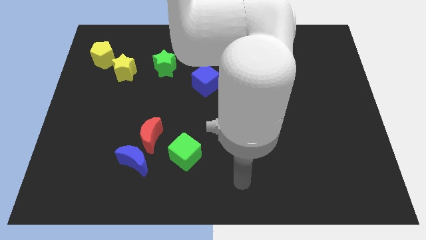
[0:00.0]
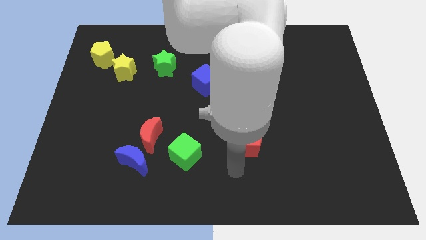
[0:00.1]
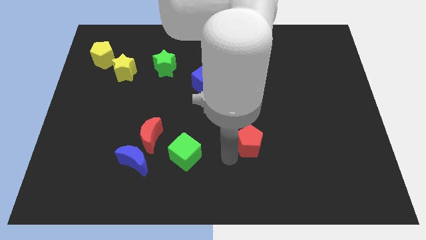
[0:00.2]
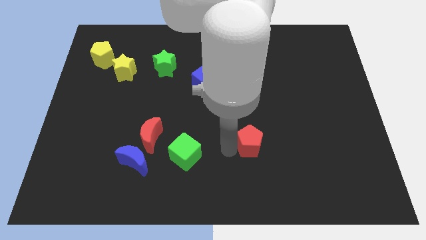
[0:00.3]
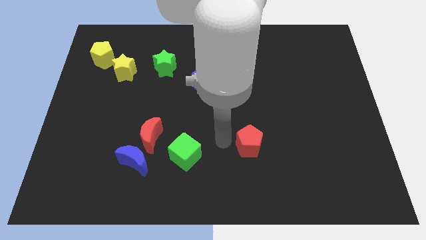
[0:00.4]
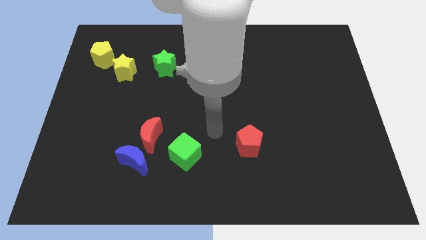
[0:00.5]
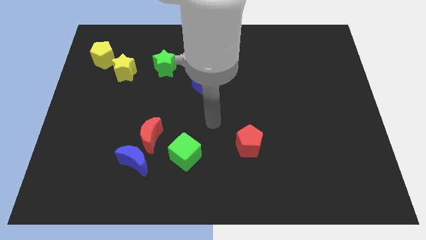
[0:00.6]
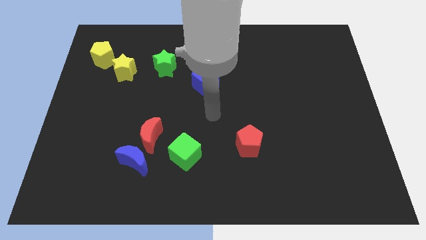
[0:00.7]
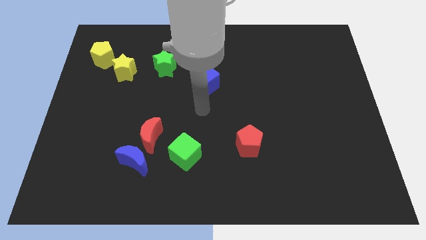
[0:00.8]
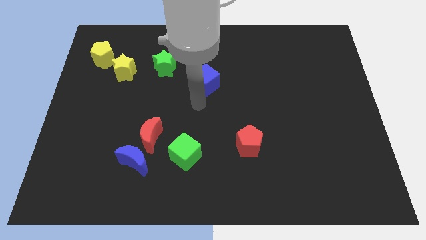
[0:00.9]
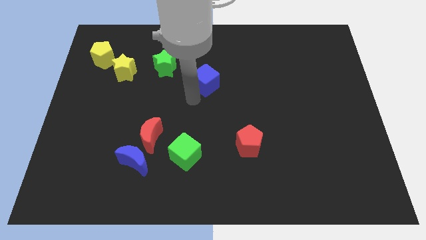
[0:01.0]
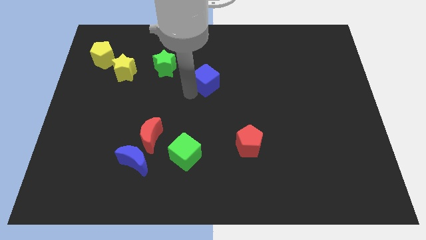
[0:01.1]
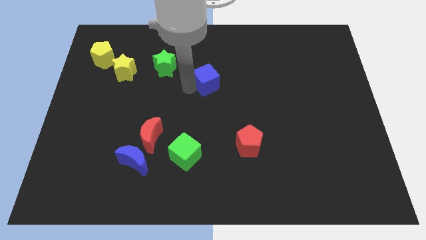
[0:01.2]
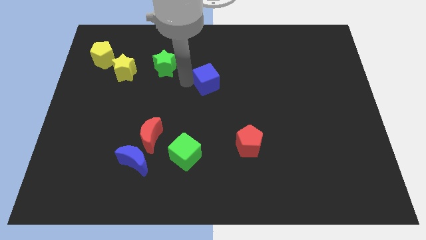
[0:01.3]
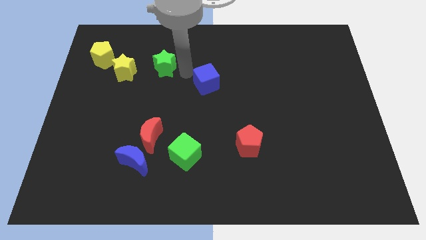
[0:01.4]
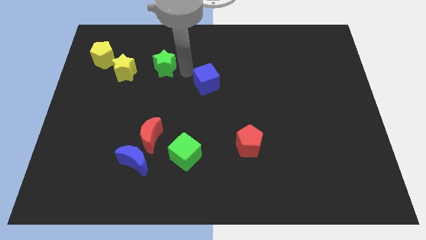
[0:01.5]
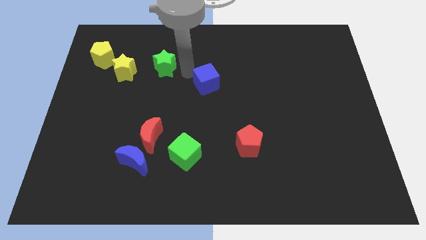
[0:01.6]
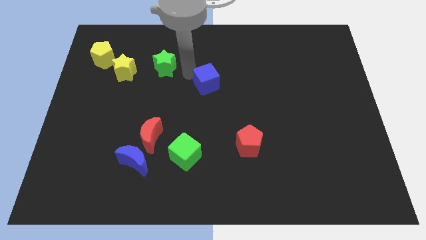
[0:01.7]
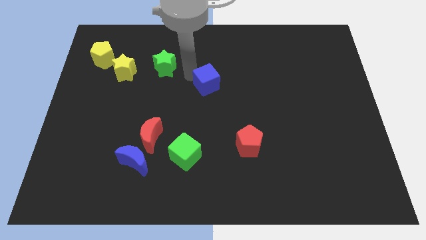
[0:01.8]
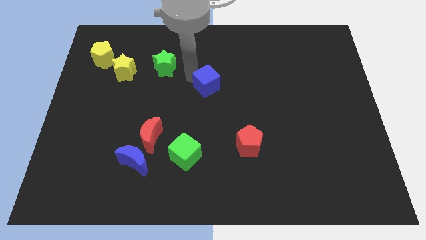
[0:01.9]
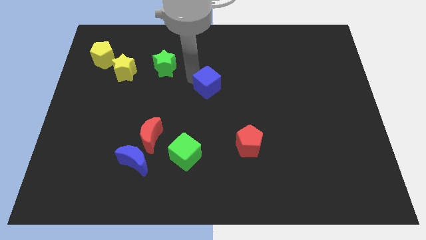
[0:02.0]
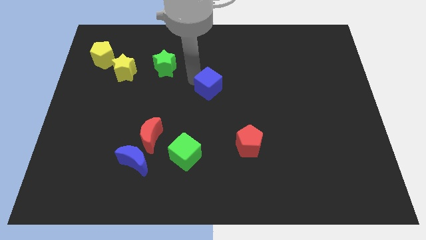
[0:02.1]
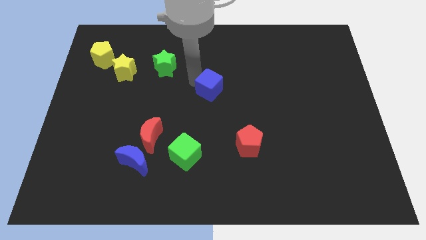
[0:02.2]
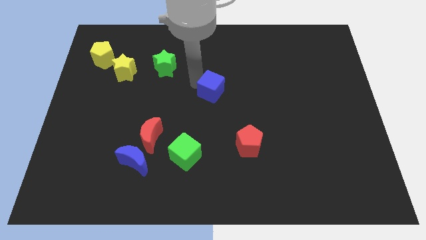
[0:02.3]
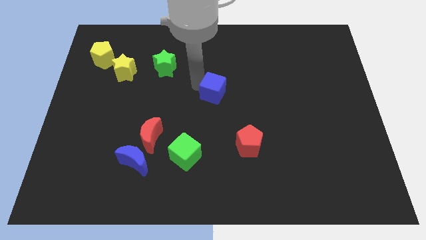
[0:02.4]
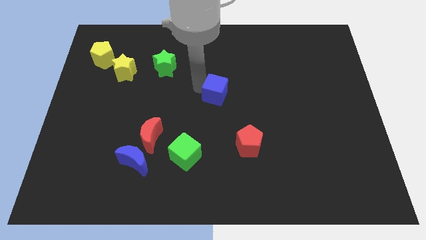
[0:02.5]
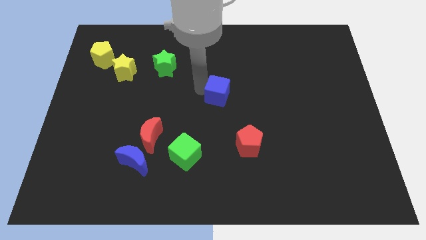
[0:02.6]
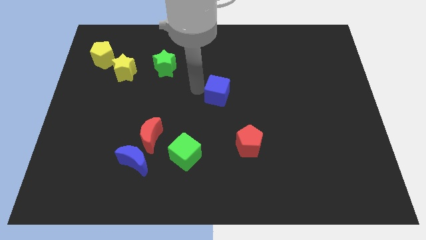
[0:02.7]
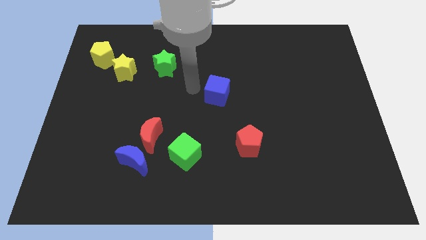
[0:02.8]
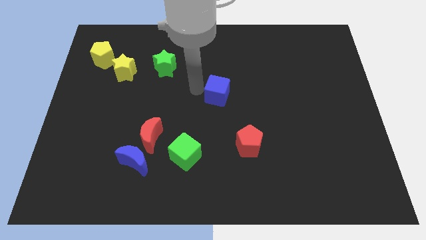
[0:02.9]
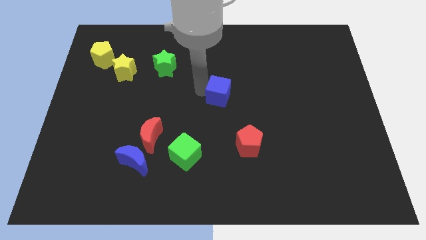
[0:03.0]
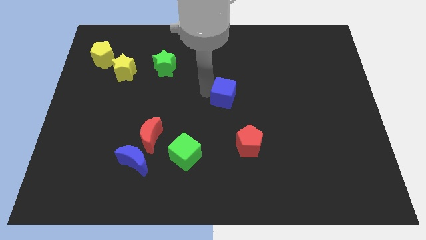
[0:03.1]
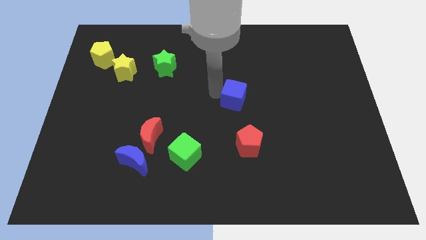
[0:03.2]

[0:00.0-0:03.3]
move the blue cube a little down and to the right

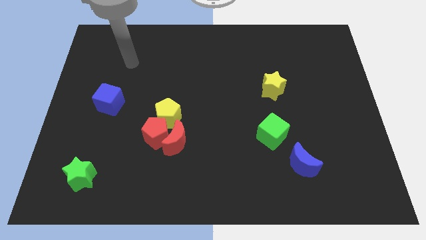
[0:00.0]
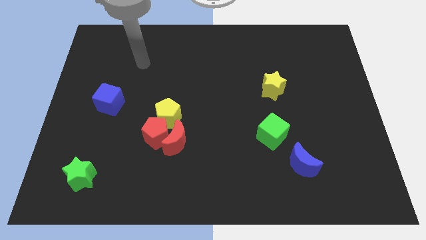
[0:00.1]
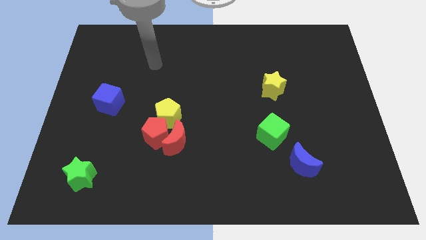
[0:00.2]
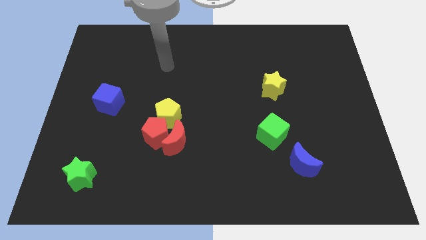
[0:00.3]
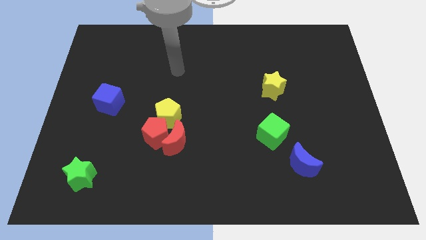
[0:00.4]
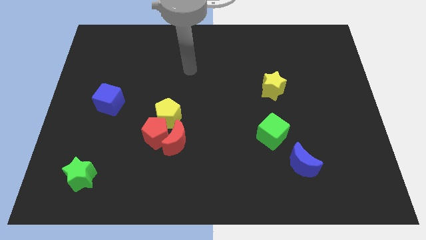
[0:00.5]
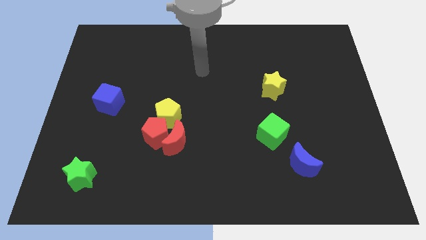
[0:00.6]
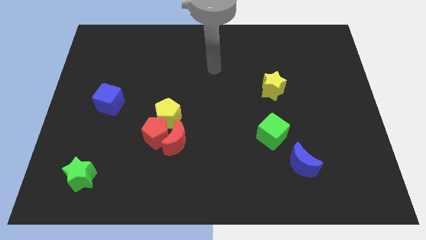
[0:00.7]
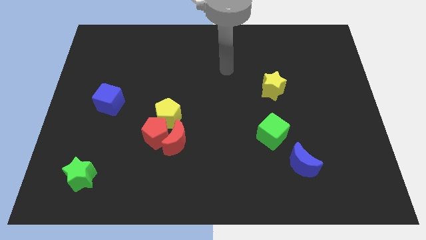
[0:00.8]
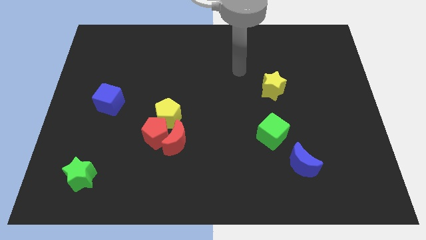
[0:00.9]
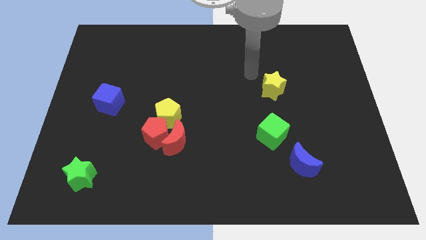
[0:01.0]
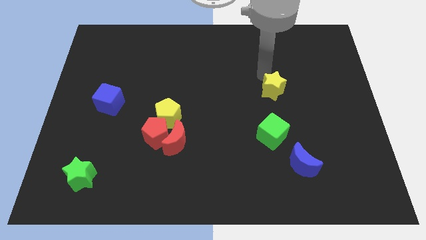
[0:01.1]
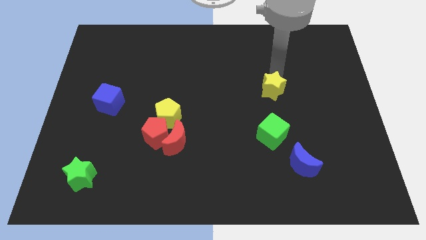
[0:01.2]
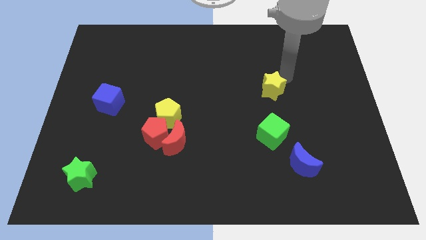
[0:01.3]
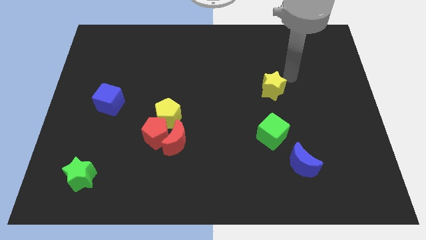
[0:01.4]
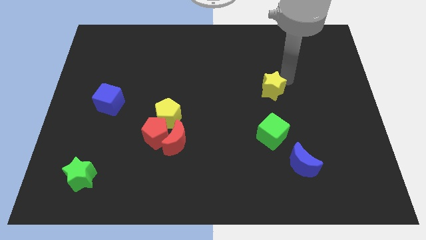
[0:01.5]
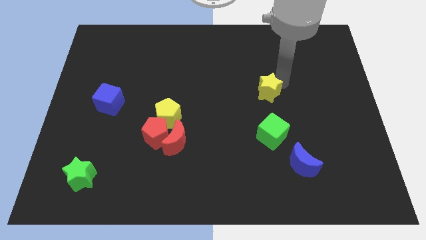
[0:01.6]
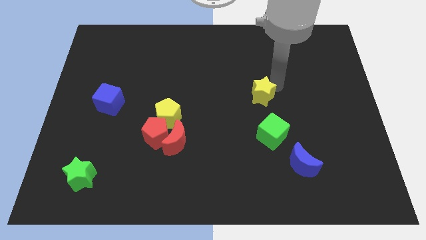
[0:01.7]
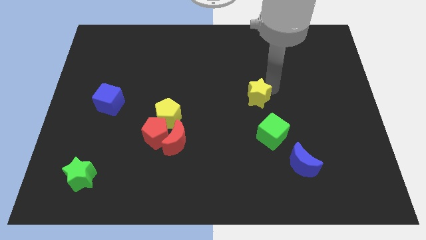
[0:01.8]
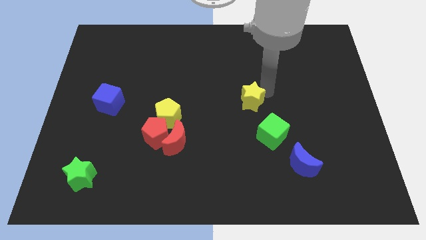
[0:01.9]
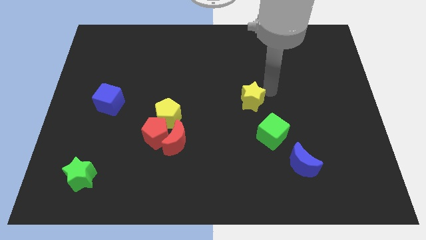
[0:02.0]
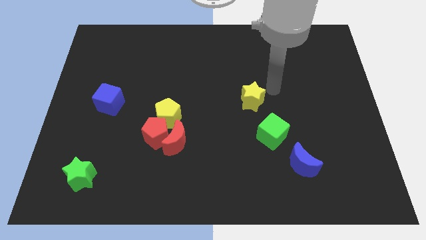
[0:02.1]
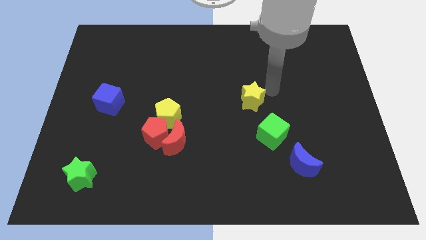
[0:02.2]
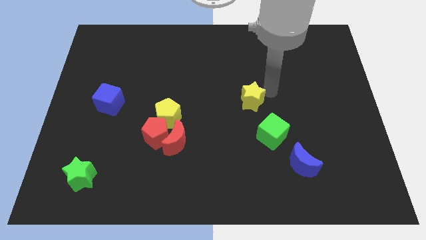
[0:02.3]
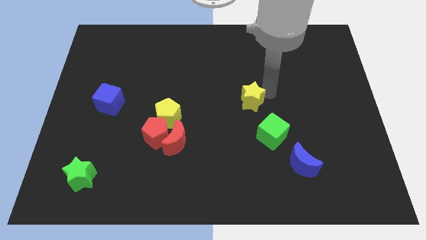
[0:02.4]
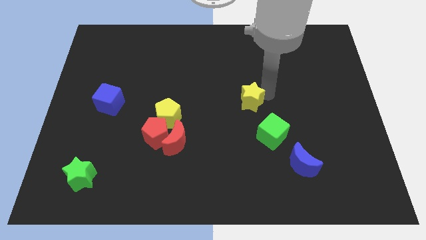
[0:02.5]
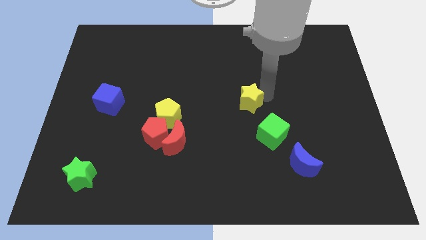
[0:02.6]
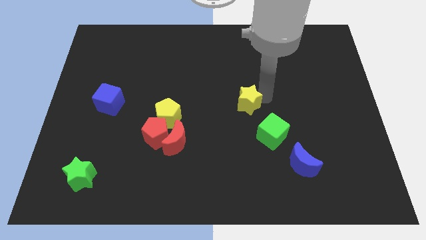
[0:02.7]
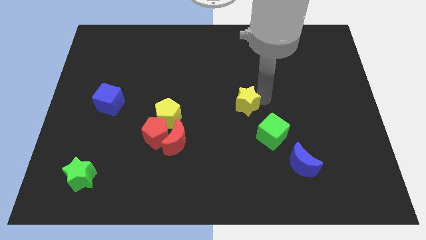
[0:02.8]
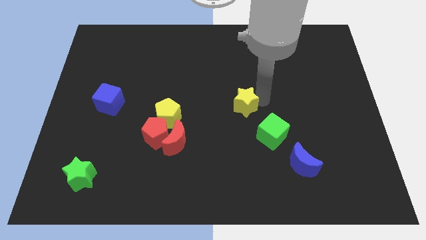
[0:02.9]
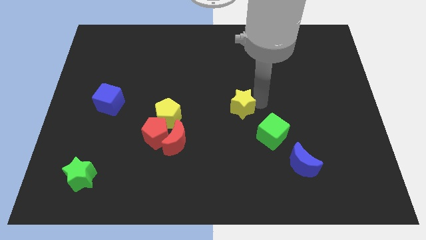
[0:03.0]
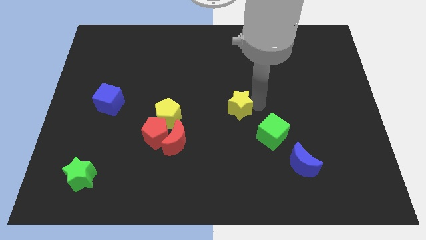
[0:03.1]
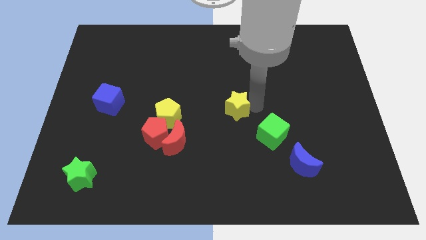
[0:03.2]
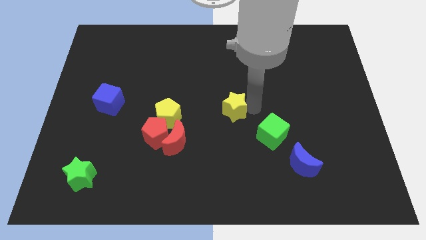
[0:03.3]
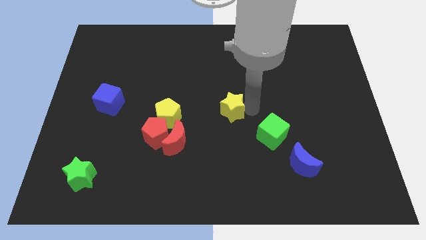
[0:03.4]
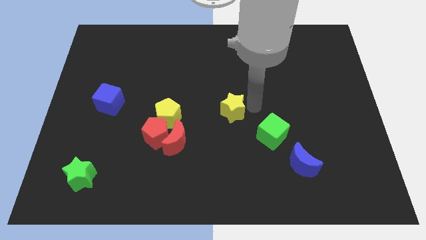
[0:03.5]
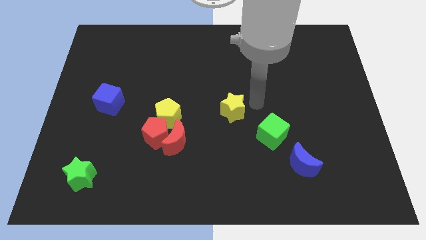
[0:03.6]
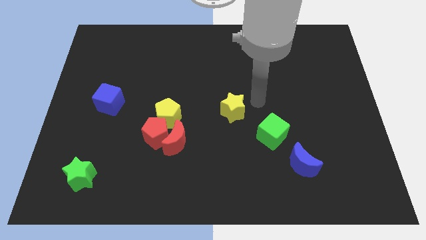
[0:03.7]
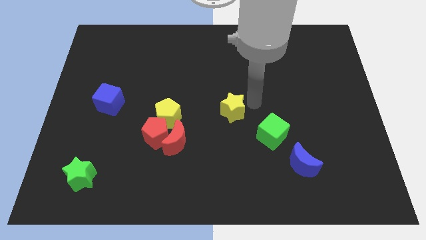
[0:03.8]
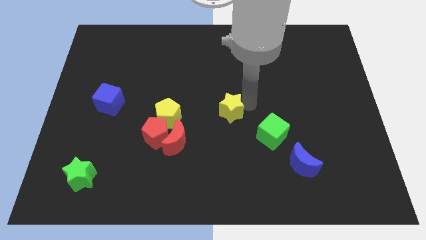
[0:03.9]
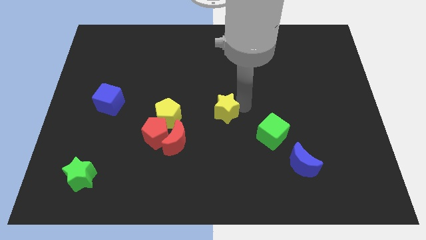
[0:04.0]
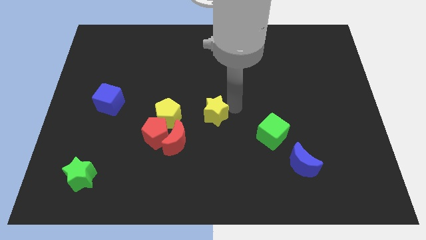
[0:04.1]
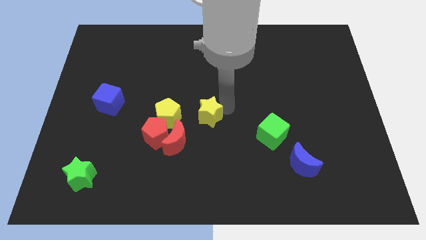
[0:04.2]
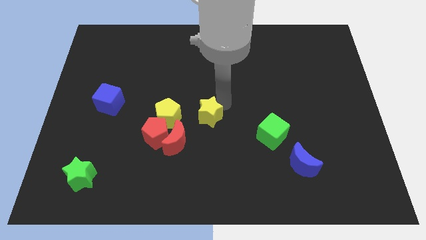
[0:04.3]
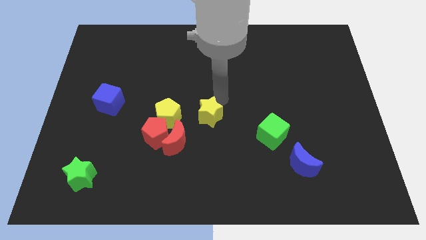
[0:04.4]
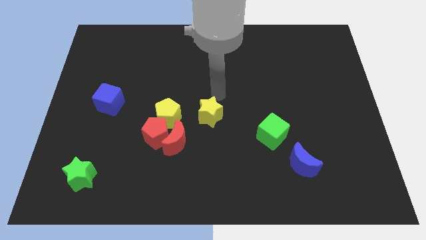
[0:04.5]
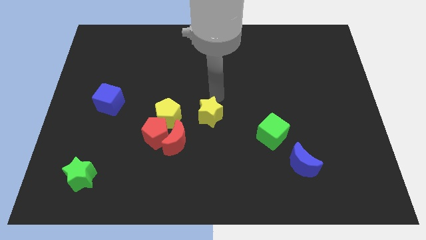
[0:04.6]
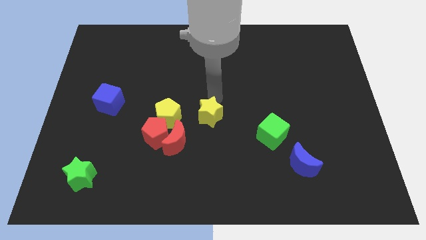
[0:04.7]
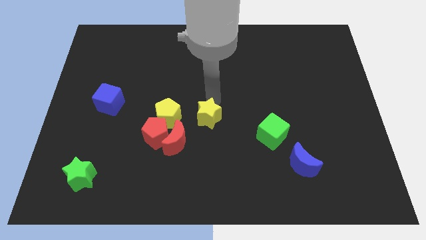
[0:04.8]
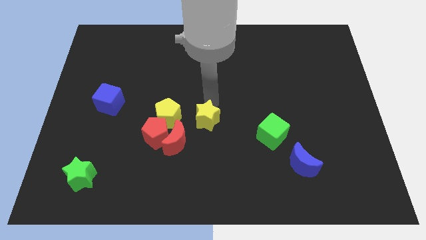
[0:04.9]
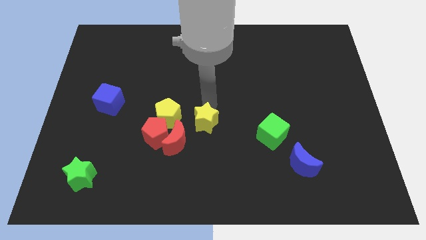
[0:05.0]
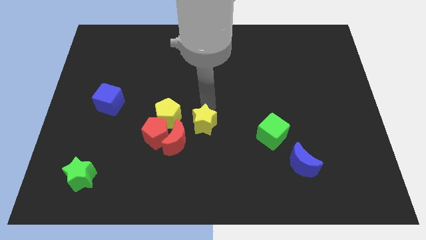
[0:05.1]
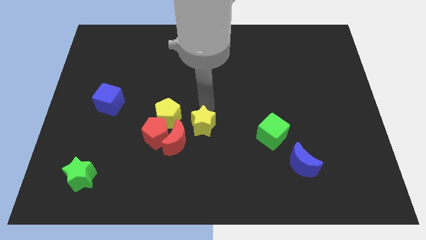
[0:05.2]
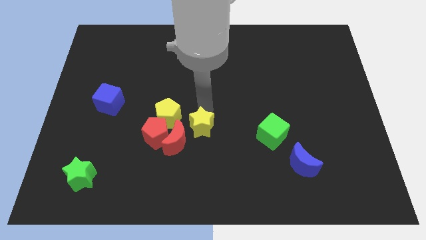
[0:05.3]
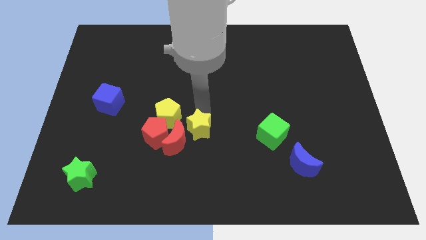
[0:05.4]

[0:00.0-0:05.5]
push the yellow star down and to the left diagonally
